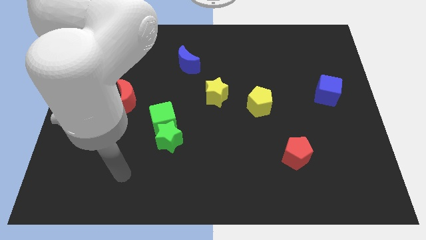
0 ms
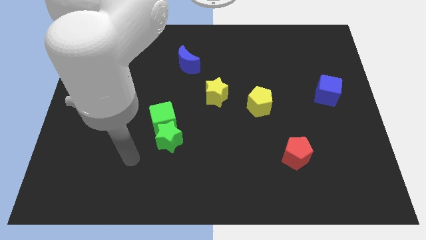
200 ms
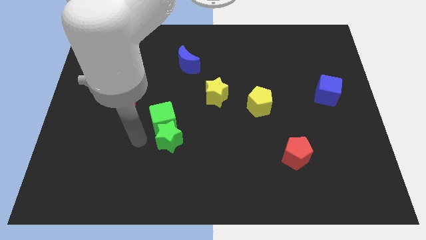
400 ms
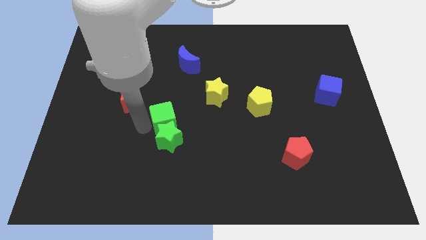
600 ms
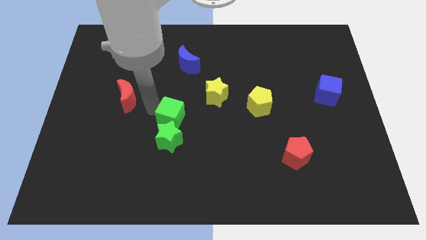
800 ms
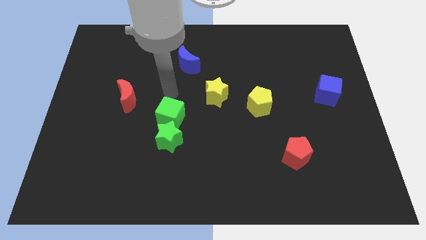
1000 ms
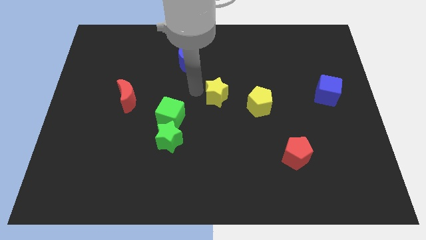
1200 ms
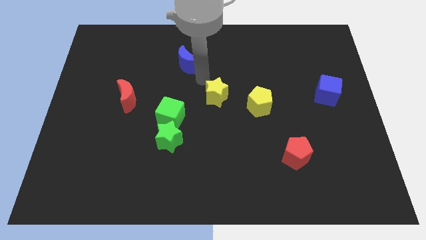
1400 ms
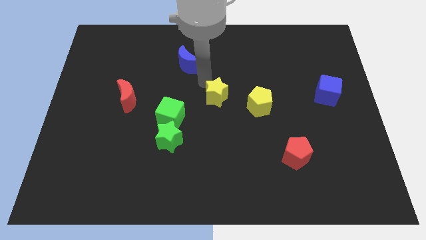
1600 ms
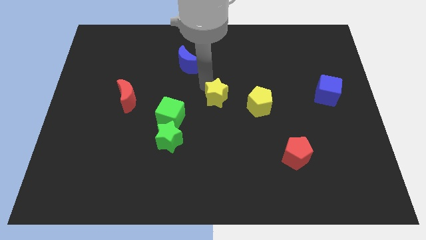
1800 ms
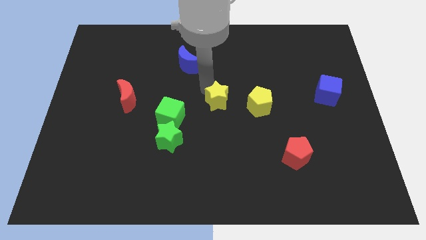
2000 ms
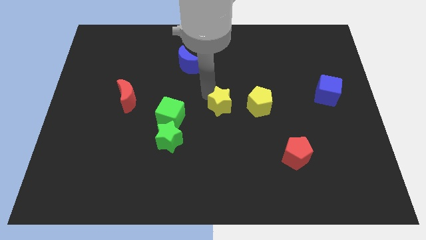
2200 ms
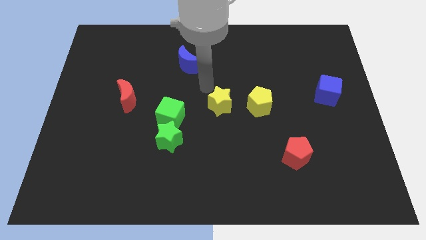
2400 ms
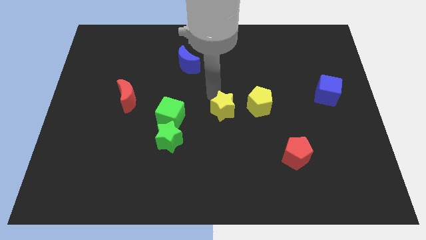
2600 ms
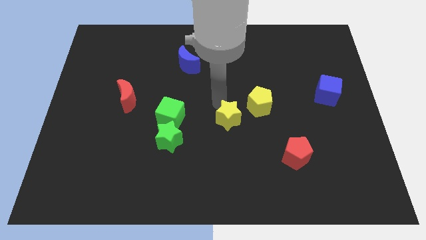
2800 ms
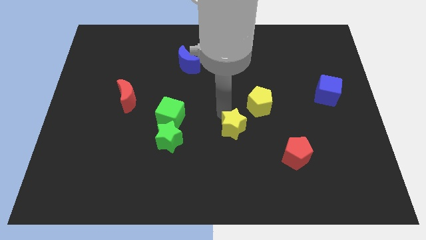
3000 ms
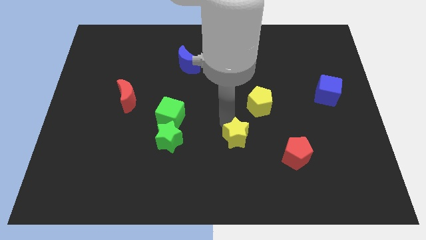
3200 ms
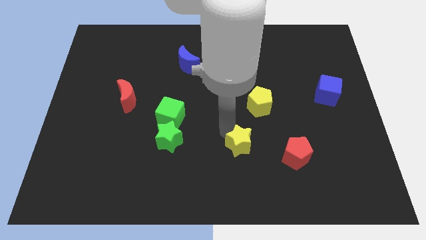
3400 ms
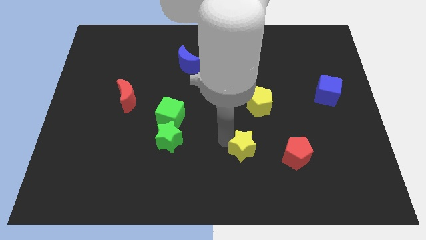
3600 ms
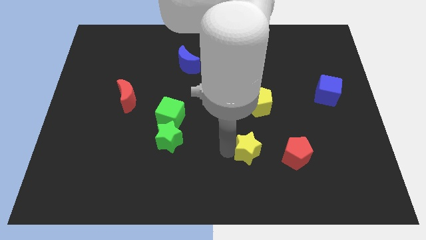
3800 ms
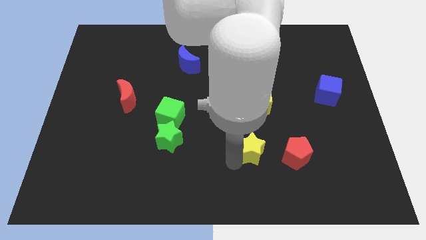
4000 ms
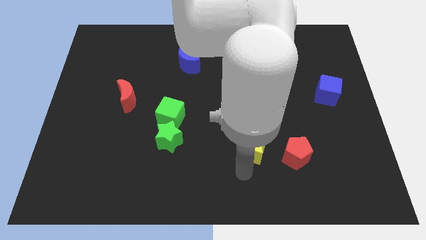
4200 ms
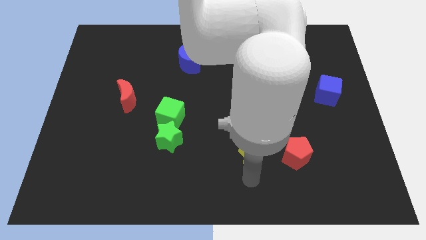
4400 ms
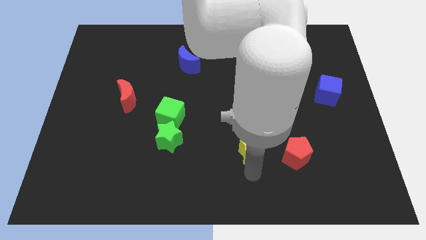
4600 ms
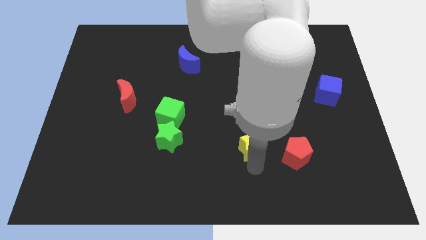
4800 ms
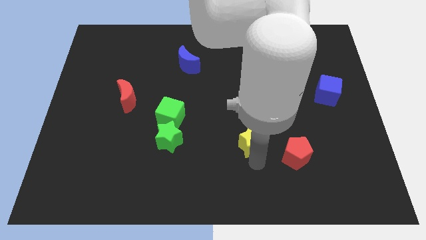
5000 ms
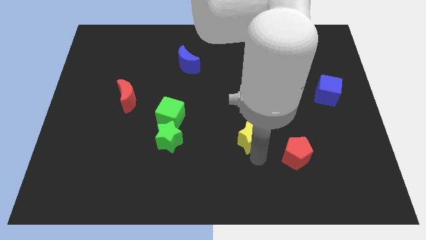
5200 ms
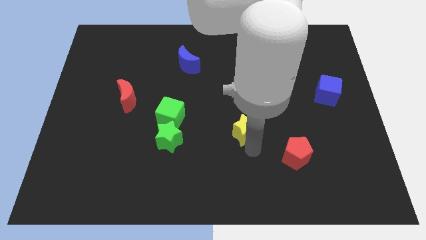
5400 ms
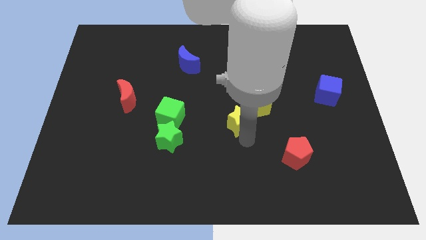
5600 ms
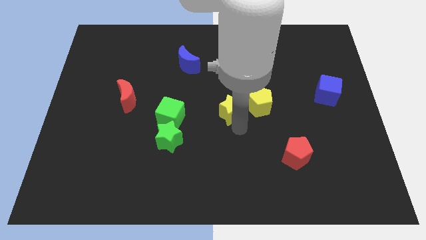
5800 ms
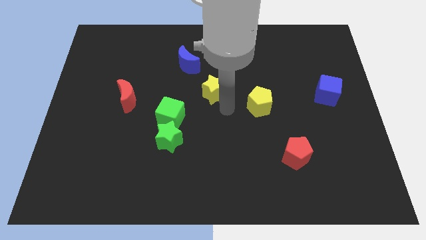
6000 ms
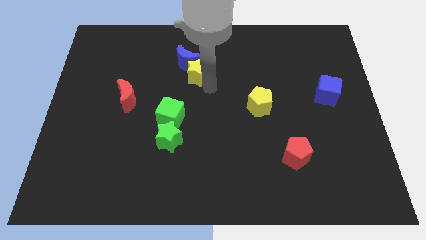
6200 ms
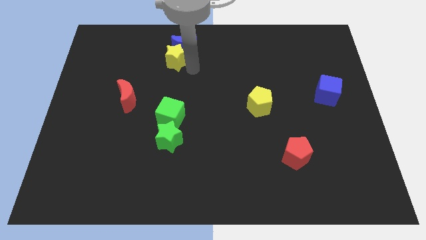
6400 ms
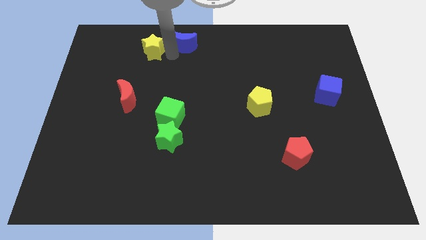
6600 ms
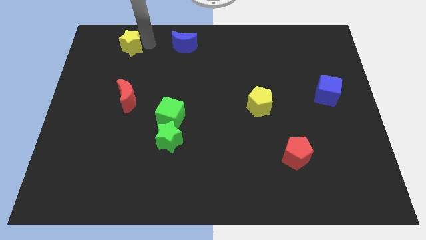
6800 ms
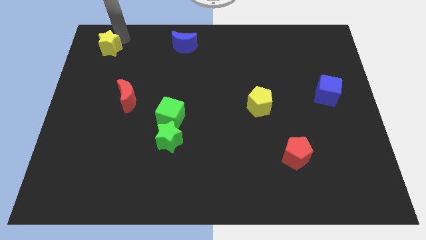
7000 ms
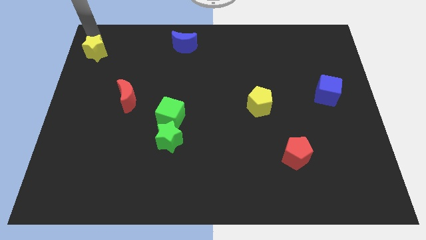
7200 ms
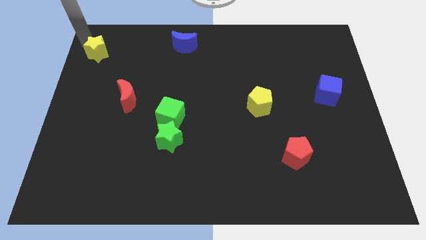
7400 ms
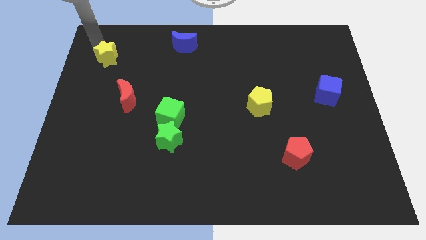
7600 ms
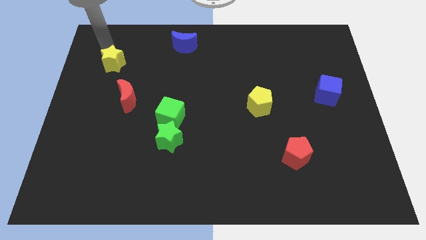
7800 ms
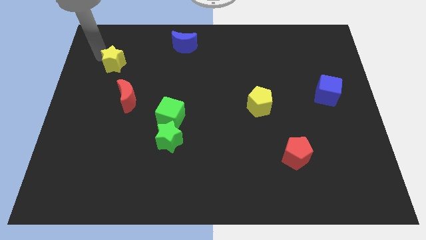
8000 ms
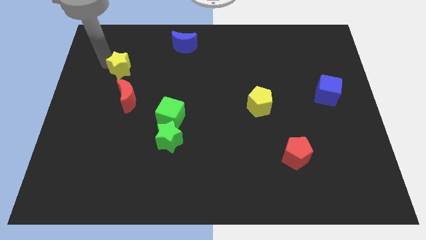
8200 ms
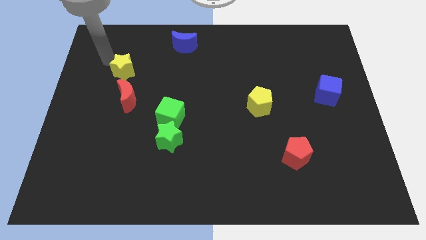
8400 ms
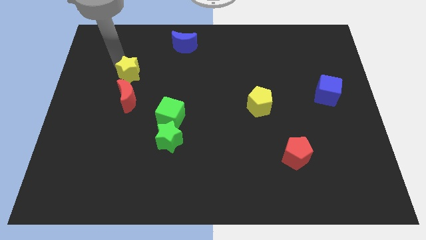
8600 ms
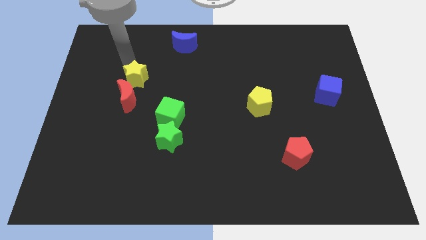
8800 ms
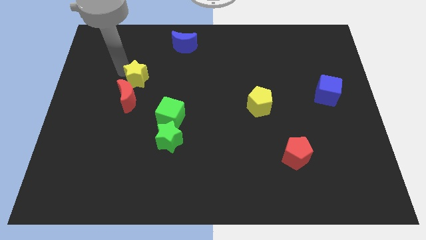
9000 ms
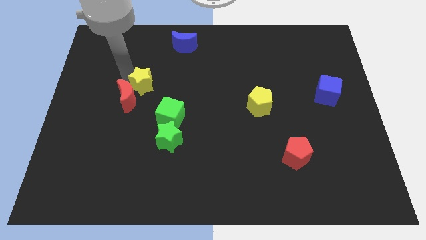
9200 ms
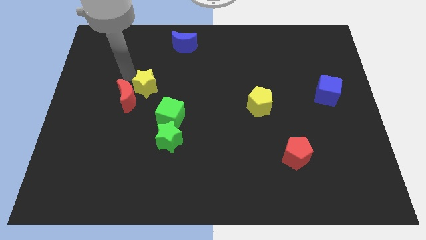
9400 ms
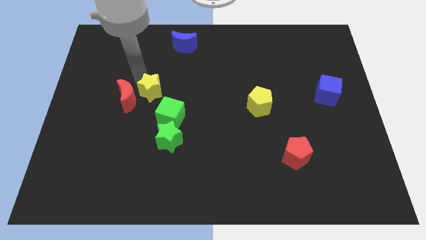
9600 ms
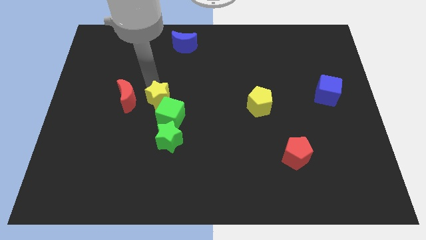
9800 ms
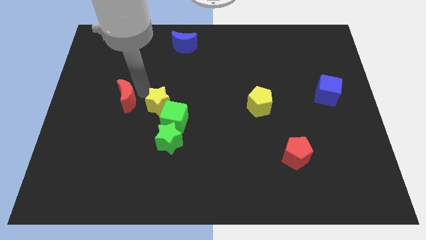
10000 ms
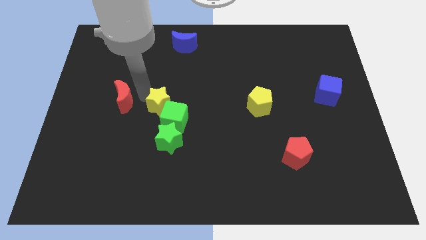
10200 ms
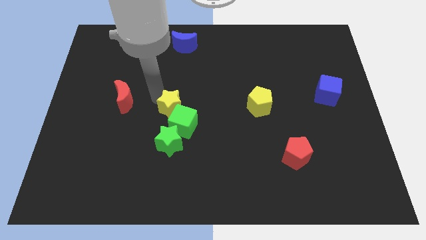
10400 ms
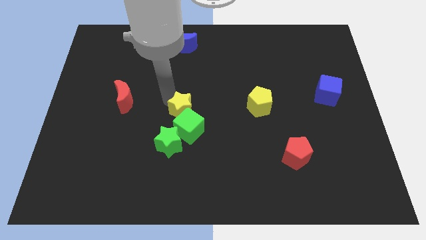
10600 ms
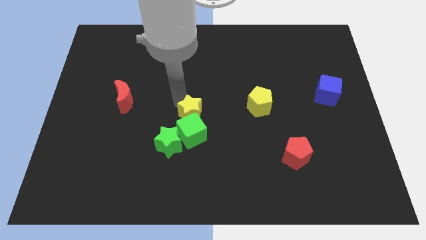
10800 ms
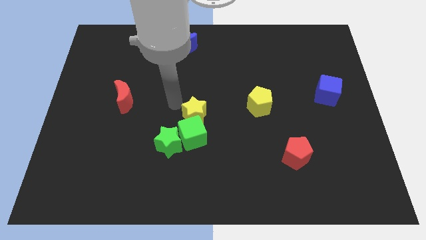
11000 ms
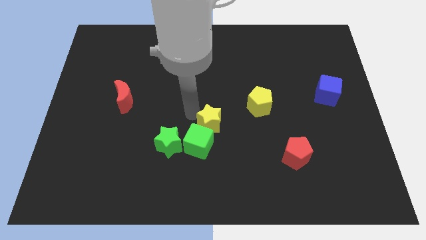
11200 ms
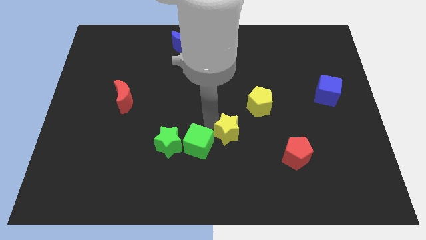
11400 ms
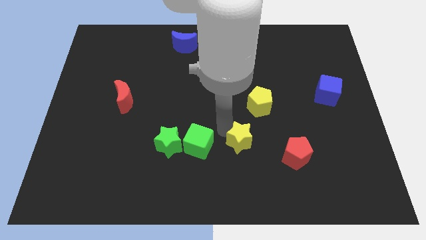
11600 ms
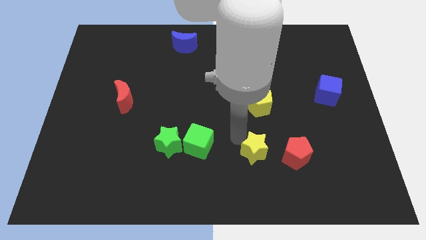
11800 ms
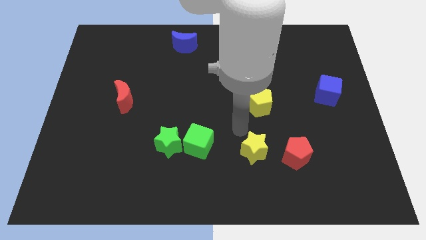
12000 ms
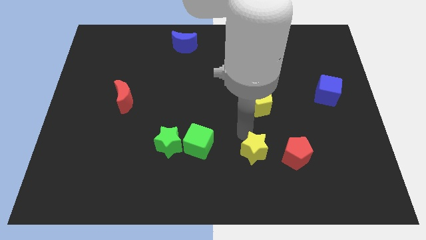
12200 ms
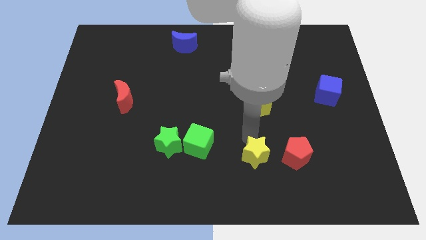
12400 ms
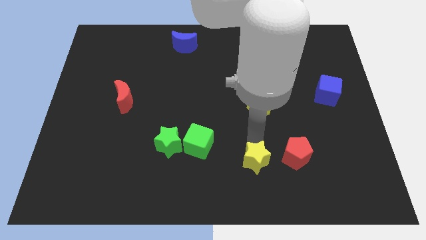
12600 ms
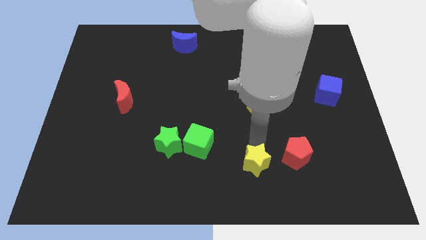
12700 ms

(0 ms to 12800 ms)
move the yellow star to the bottom left of the red pentagon

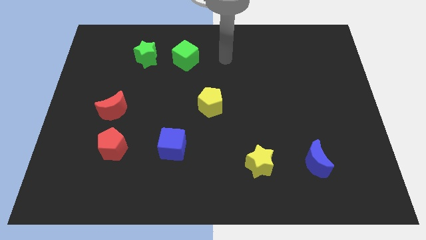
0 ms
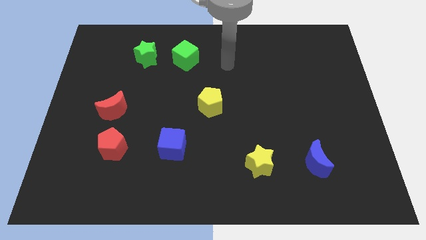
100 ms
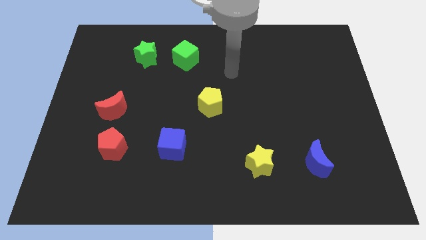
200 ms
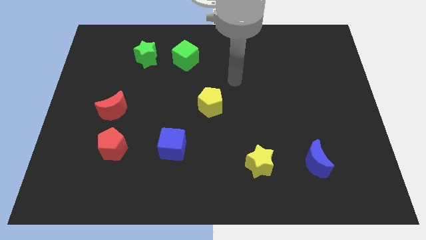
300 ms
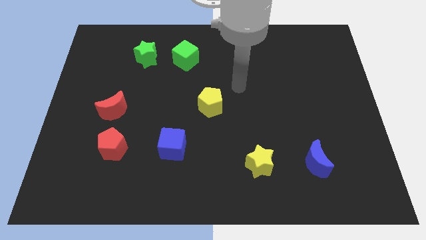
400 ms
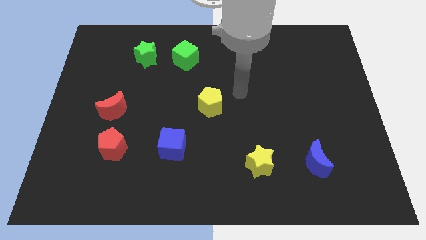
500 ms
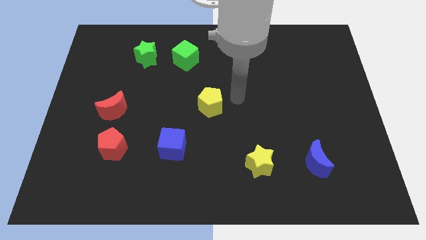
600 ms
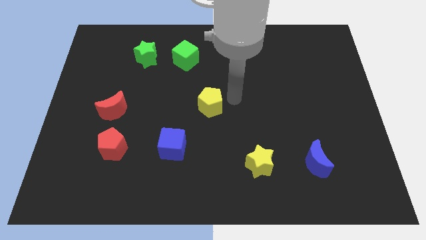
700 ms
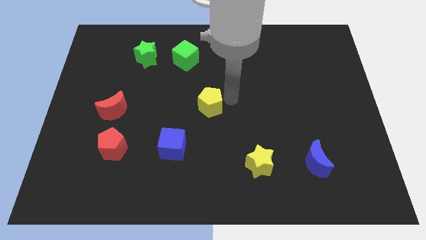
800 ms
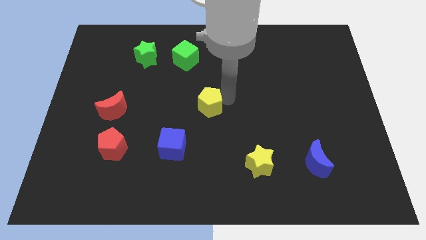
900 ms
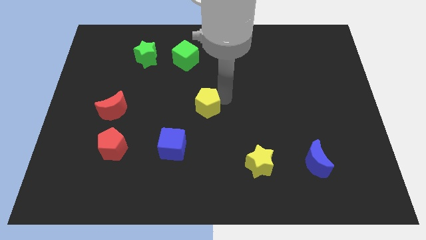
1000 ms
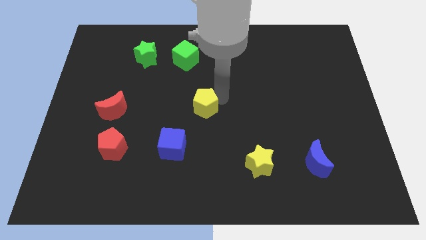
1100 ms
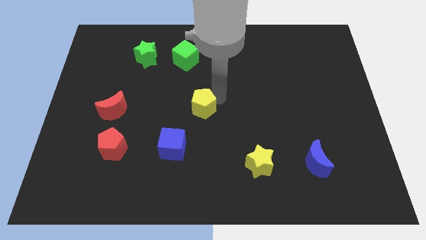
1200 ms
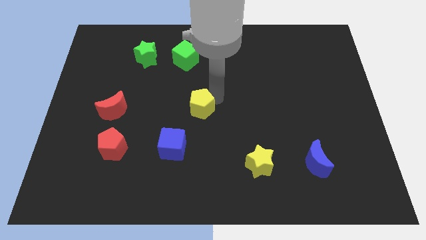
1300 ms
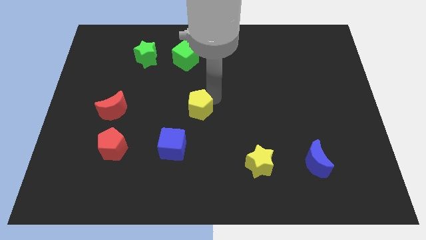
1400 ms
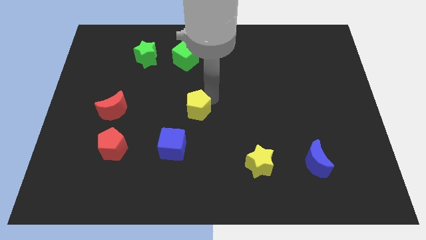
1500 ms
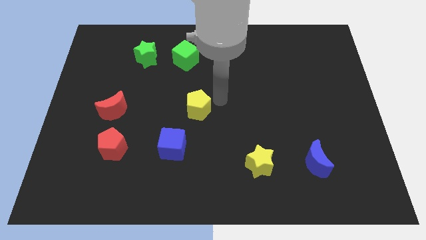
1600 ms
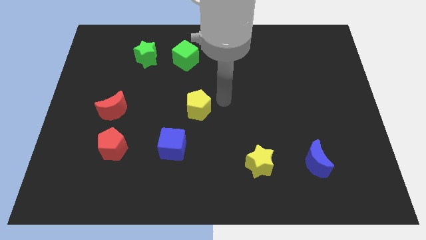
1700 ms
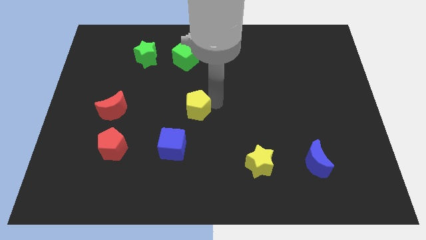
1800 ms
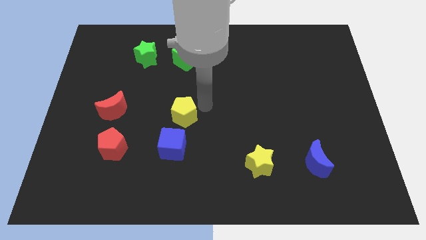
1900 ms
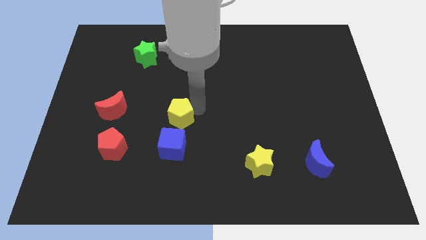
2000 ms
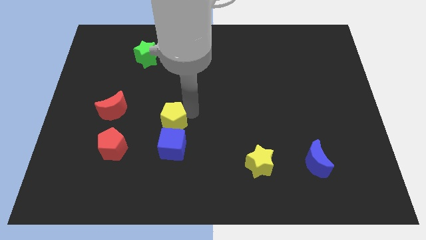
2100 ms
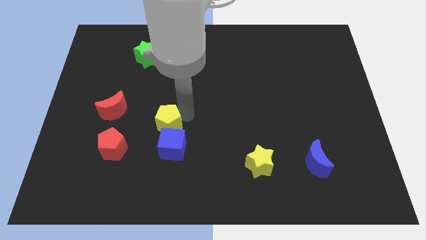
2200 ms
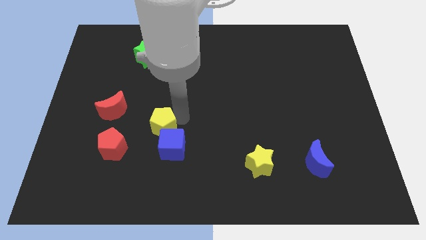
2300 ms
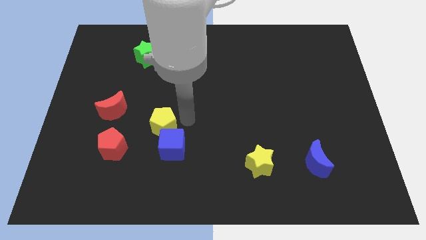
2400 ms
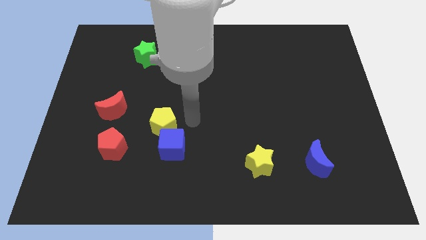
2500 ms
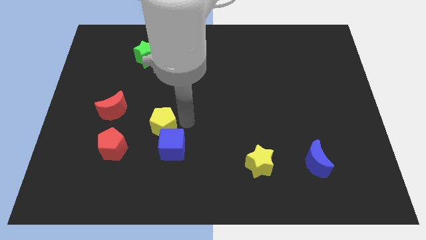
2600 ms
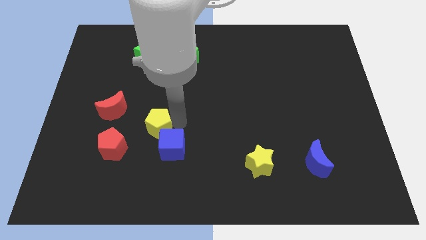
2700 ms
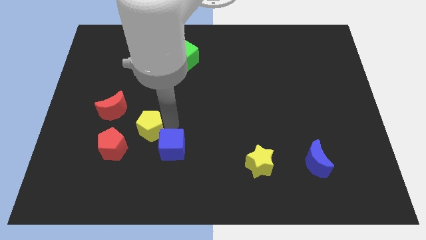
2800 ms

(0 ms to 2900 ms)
slide the yellow pentagon diagonally down and to the right of the red moon
